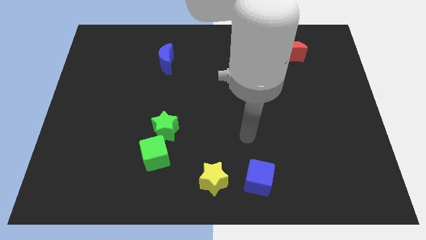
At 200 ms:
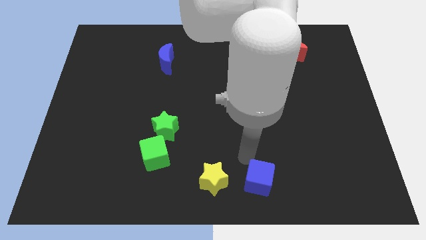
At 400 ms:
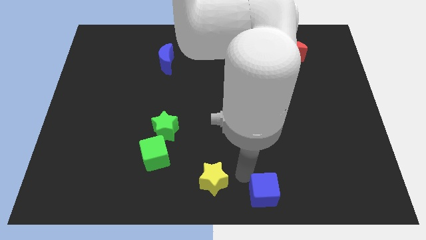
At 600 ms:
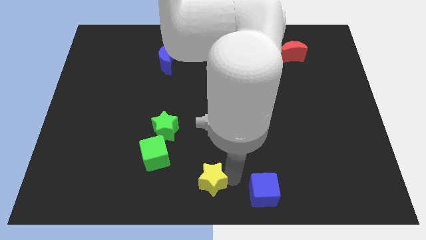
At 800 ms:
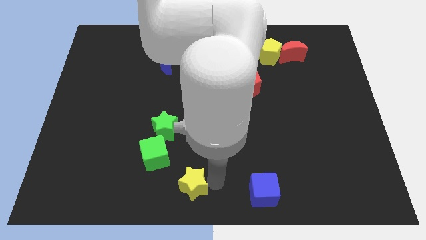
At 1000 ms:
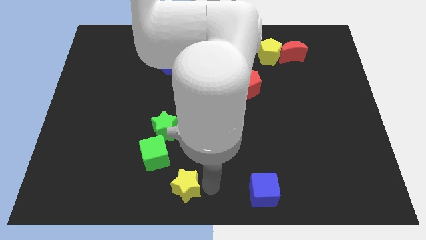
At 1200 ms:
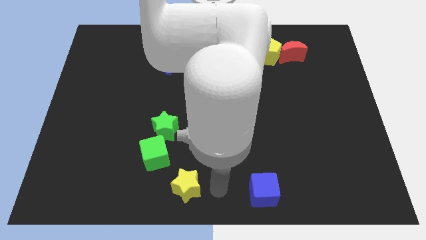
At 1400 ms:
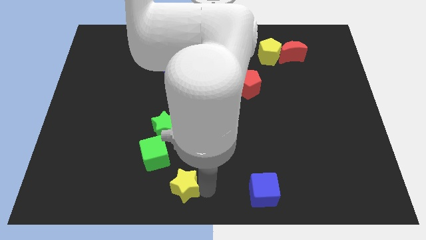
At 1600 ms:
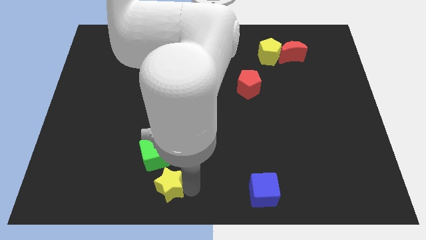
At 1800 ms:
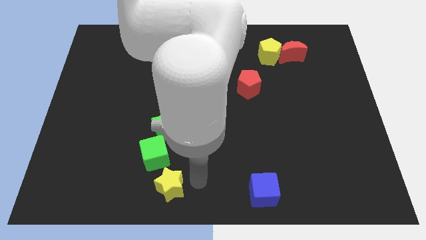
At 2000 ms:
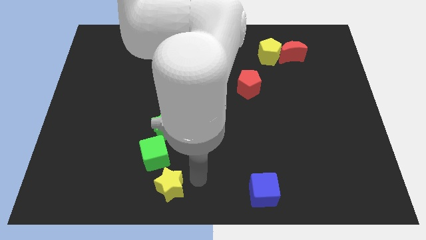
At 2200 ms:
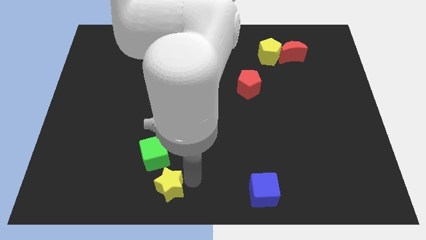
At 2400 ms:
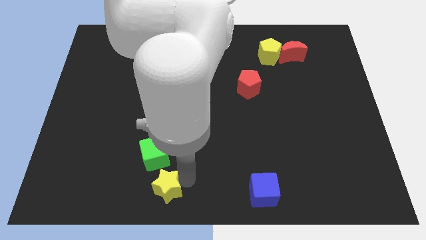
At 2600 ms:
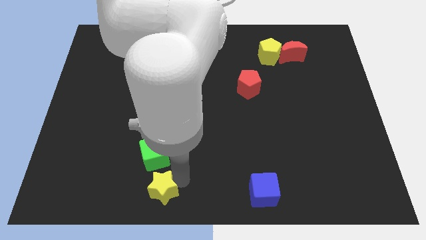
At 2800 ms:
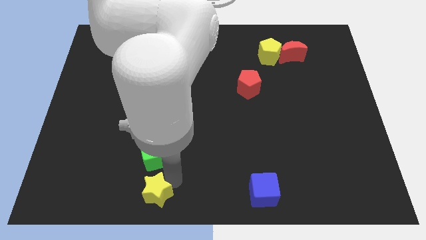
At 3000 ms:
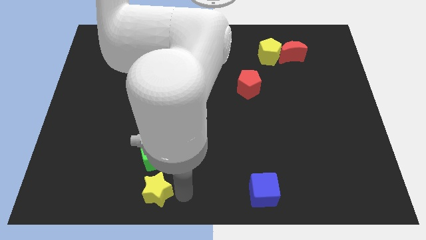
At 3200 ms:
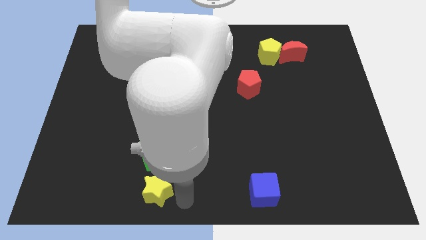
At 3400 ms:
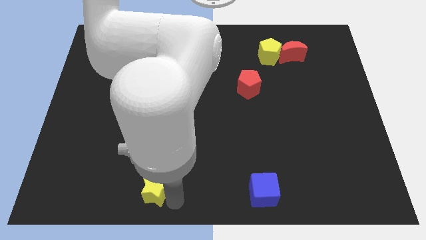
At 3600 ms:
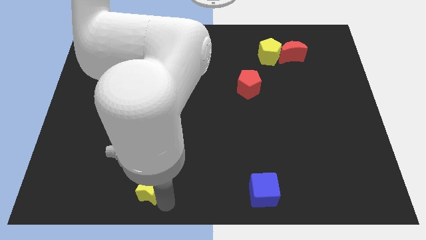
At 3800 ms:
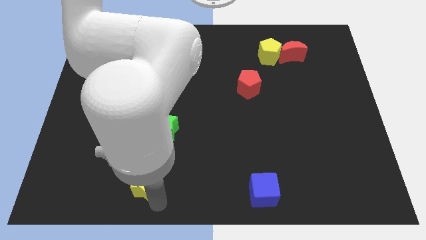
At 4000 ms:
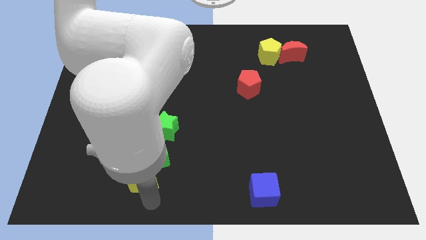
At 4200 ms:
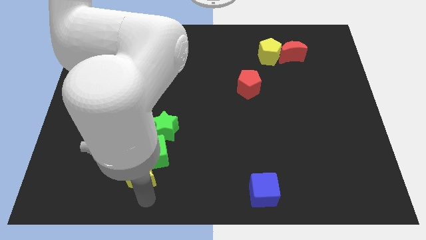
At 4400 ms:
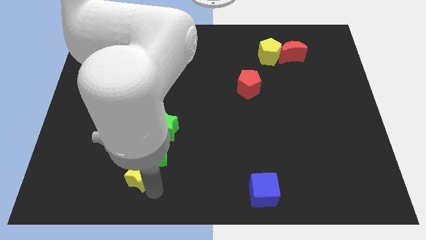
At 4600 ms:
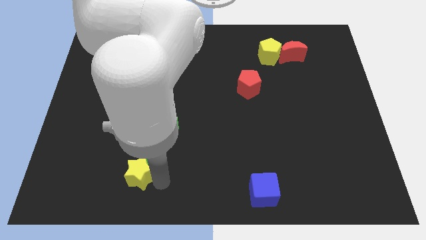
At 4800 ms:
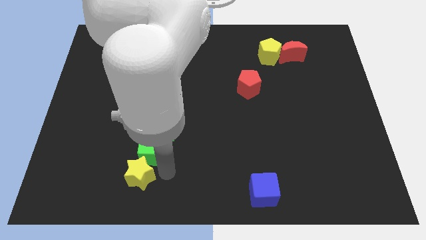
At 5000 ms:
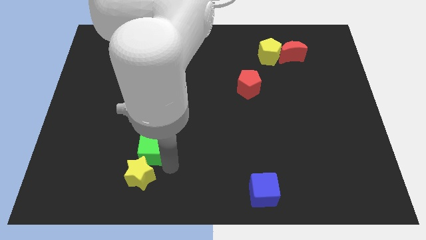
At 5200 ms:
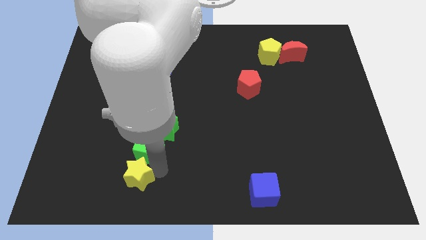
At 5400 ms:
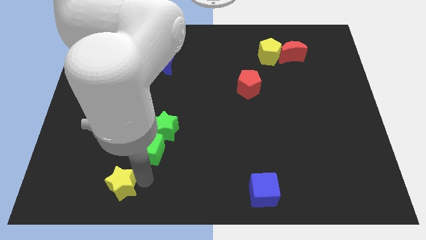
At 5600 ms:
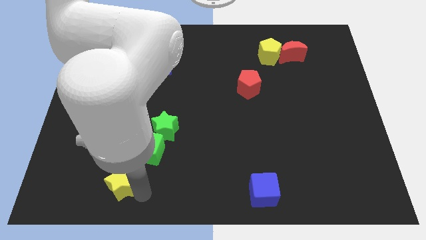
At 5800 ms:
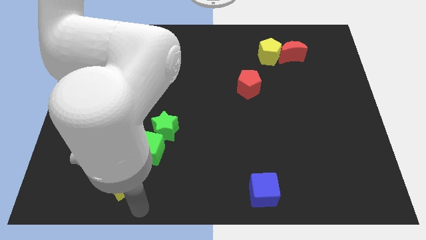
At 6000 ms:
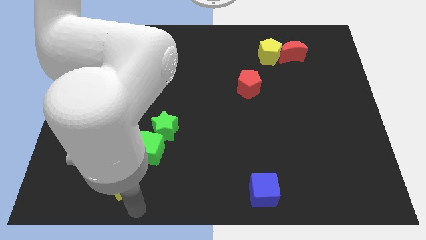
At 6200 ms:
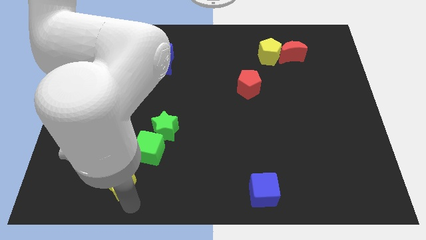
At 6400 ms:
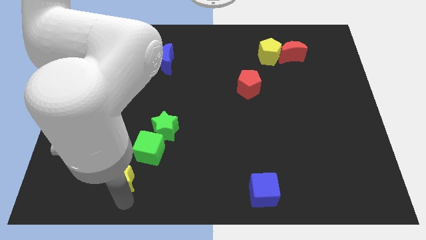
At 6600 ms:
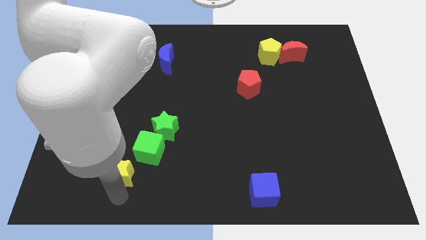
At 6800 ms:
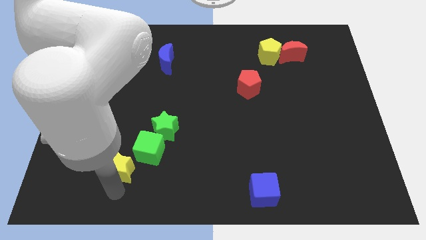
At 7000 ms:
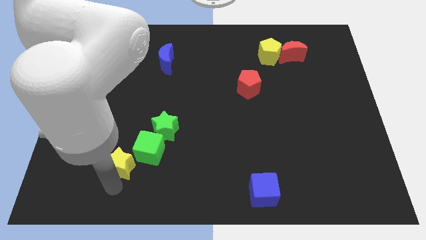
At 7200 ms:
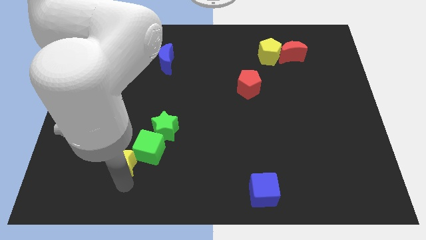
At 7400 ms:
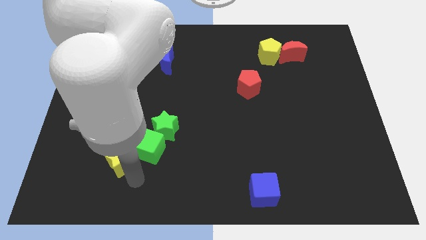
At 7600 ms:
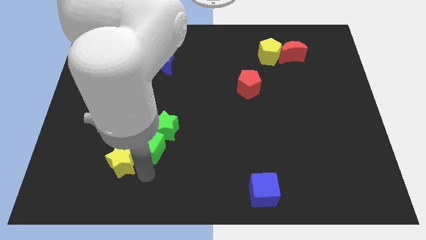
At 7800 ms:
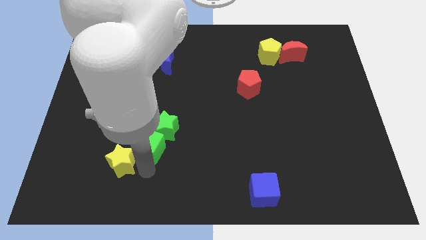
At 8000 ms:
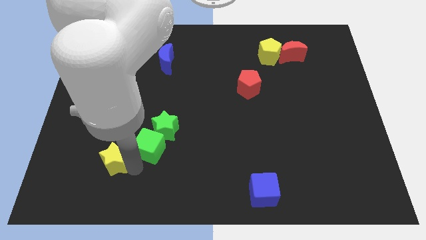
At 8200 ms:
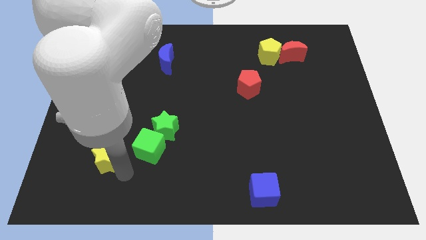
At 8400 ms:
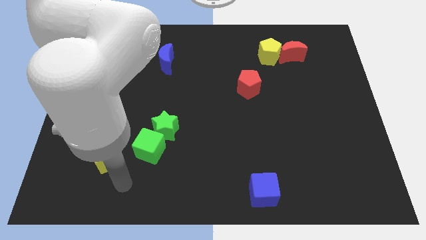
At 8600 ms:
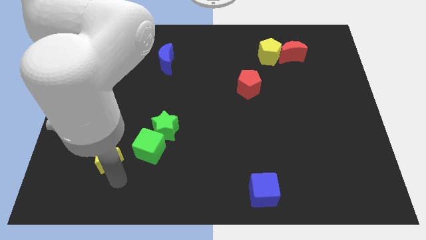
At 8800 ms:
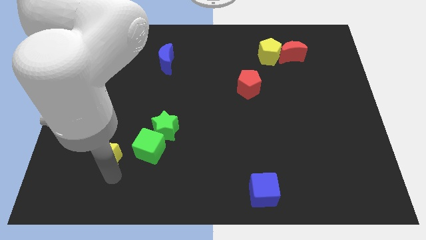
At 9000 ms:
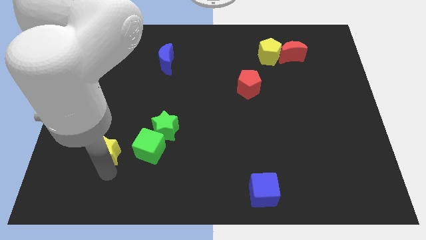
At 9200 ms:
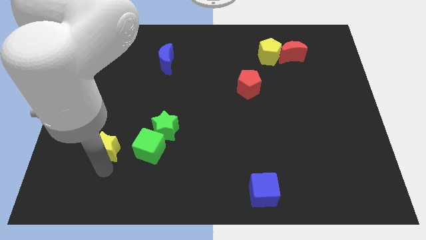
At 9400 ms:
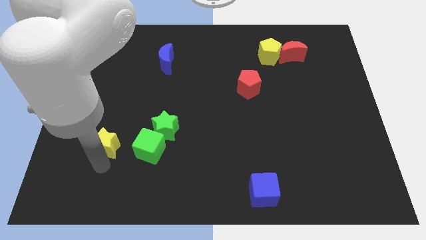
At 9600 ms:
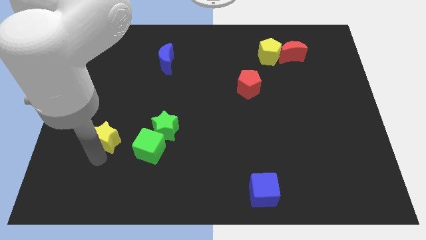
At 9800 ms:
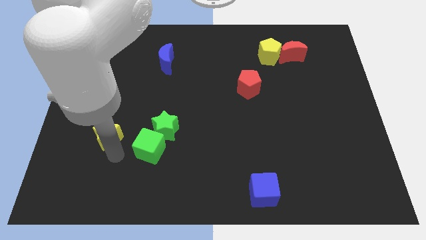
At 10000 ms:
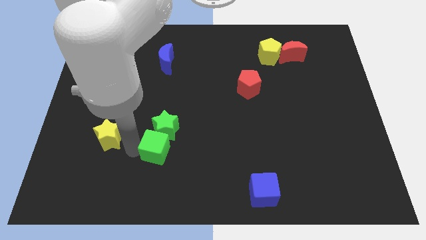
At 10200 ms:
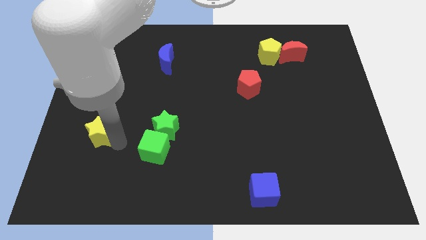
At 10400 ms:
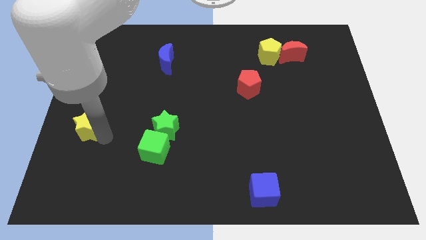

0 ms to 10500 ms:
put the yellow star to the left side

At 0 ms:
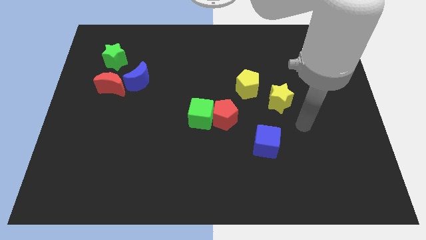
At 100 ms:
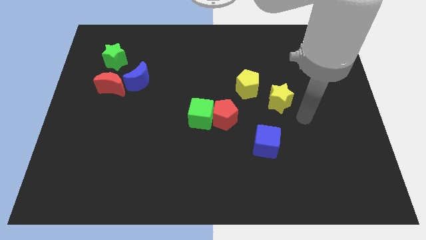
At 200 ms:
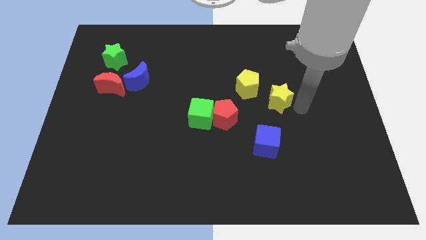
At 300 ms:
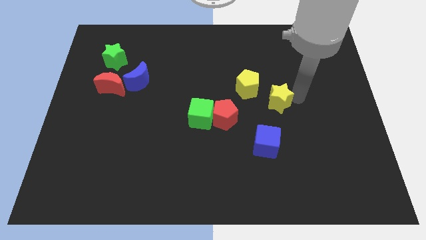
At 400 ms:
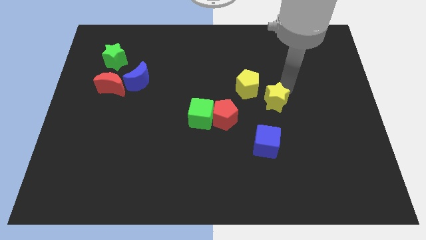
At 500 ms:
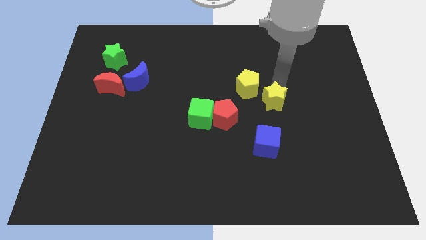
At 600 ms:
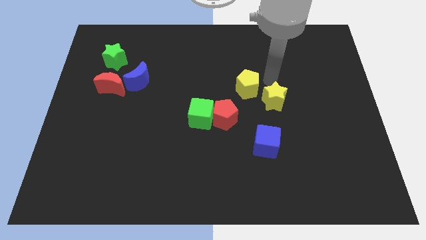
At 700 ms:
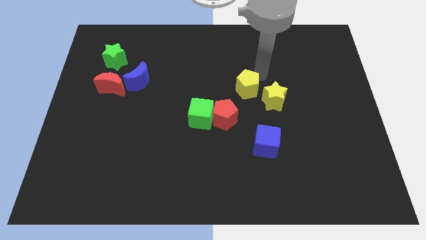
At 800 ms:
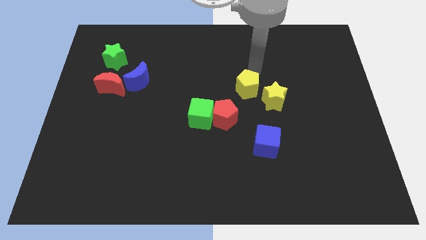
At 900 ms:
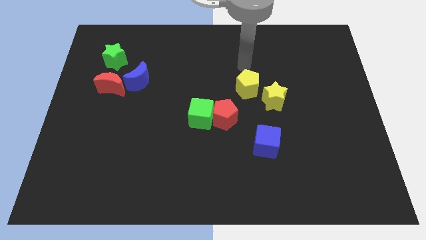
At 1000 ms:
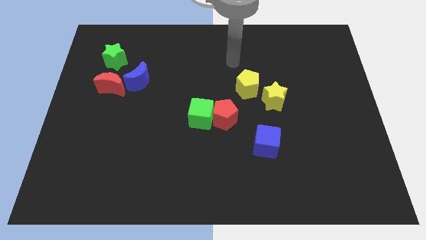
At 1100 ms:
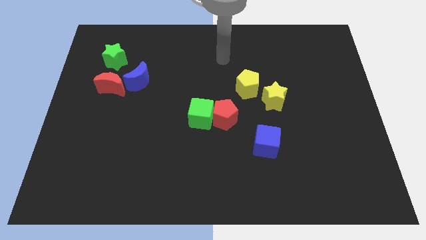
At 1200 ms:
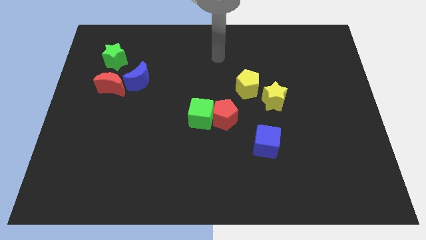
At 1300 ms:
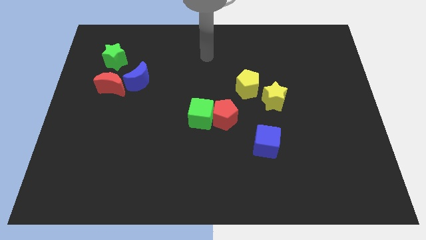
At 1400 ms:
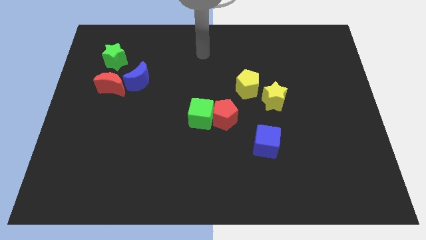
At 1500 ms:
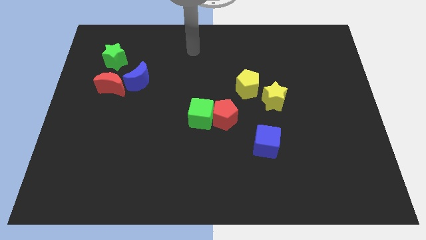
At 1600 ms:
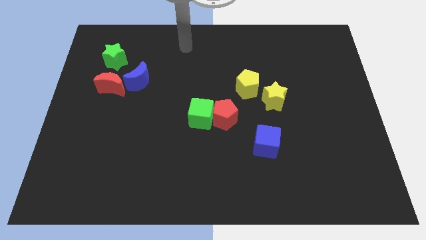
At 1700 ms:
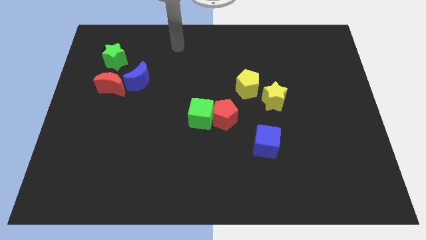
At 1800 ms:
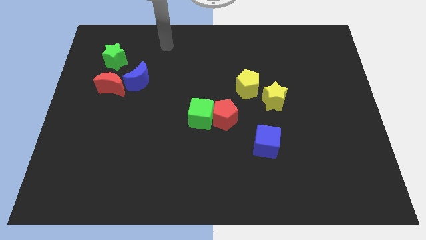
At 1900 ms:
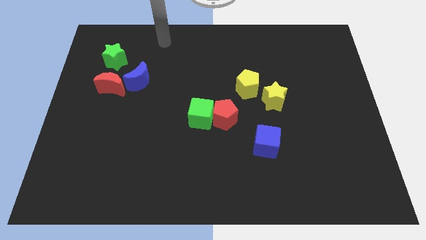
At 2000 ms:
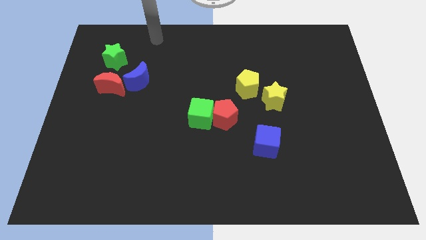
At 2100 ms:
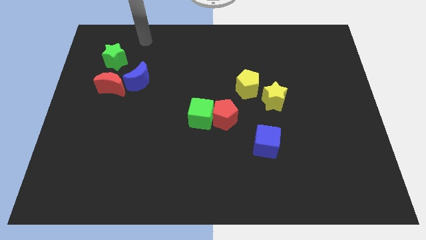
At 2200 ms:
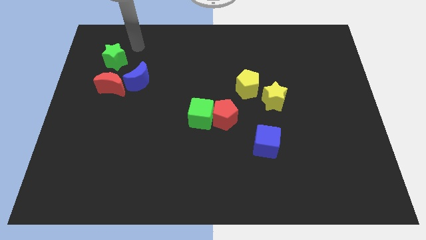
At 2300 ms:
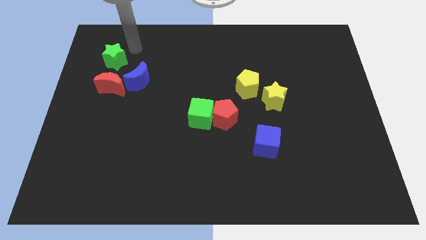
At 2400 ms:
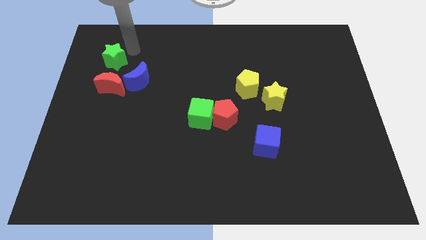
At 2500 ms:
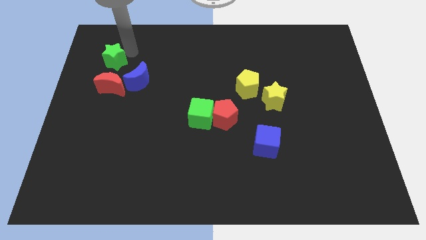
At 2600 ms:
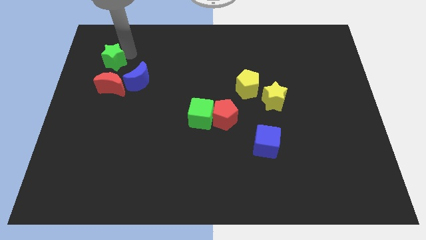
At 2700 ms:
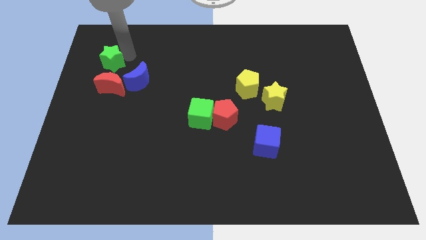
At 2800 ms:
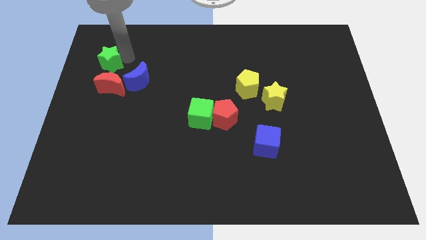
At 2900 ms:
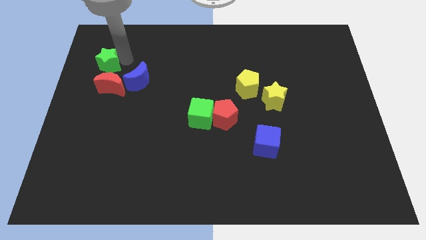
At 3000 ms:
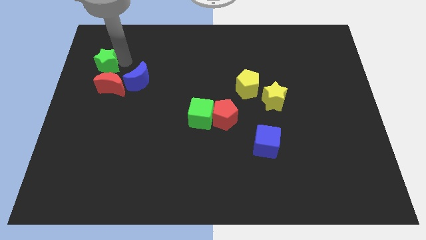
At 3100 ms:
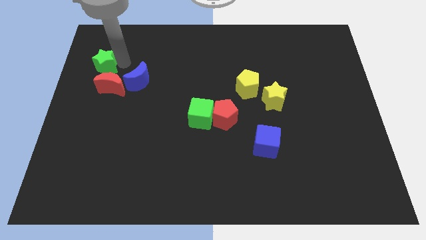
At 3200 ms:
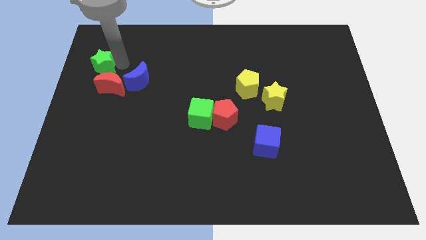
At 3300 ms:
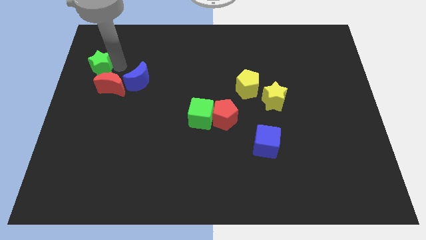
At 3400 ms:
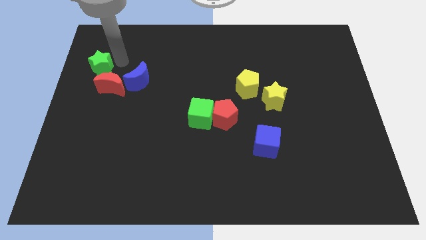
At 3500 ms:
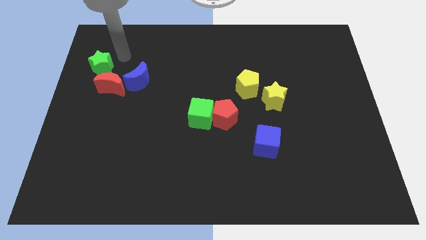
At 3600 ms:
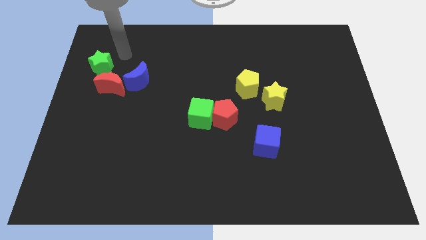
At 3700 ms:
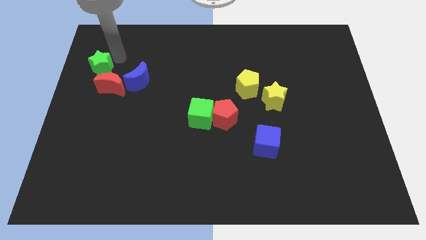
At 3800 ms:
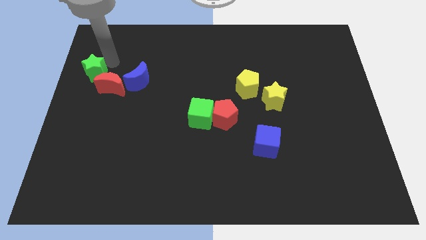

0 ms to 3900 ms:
move the green star to the left side of the board
